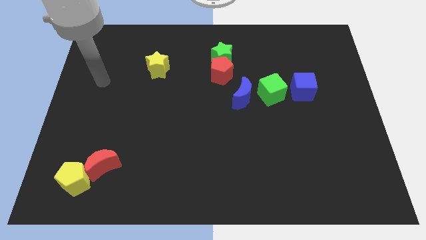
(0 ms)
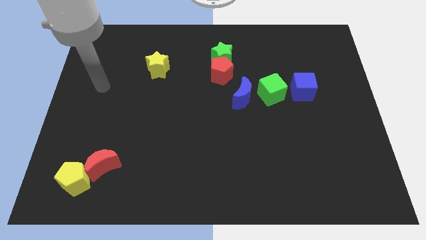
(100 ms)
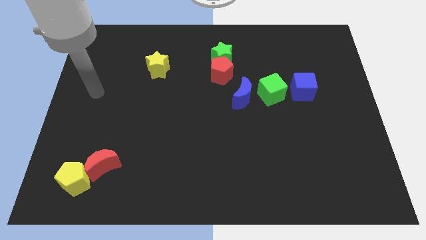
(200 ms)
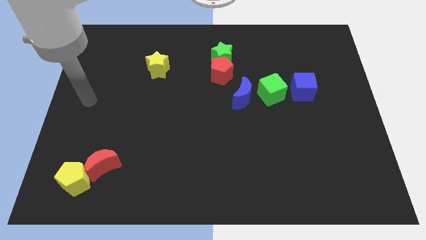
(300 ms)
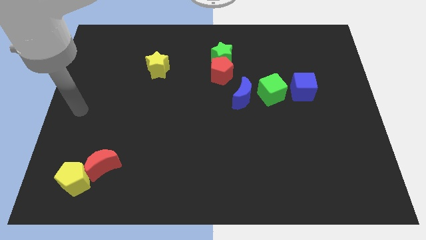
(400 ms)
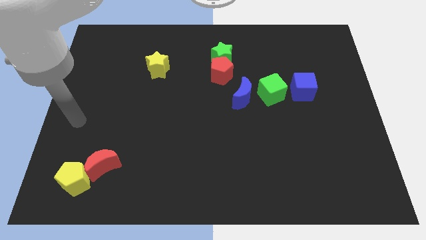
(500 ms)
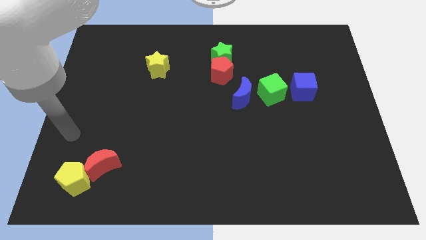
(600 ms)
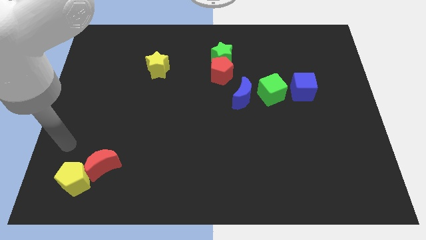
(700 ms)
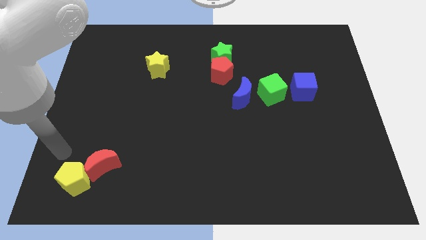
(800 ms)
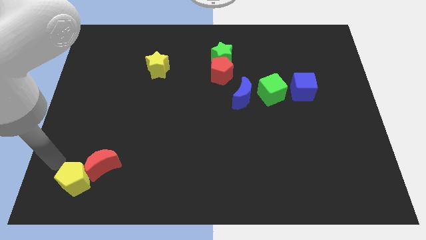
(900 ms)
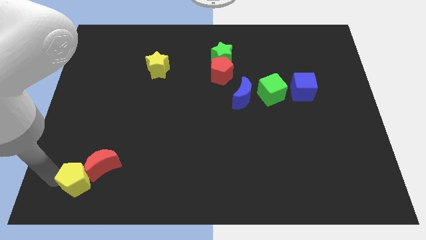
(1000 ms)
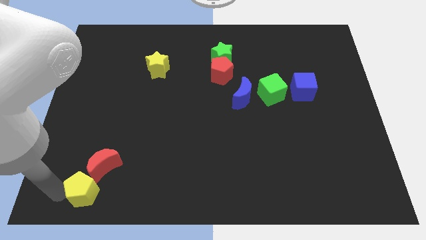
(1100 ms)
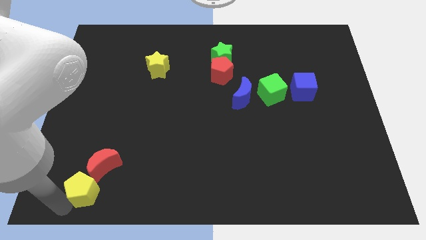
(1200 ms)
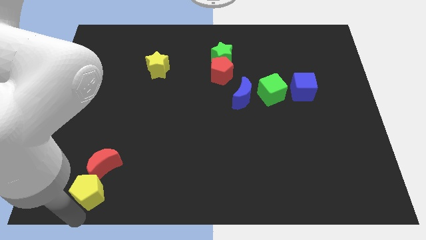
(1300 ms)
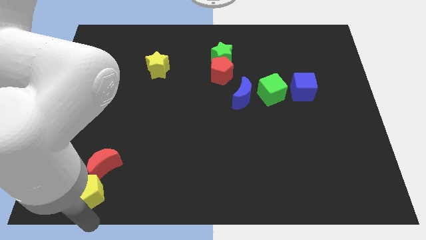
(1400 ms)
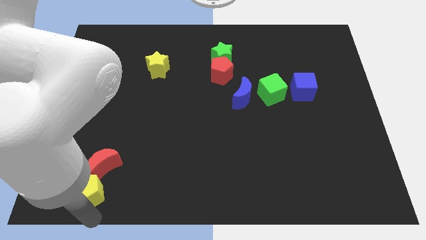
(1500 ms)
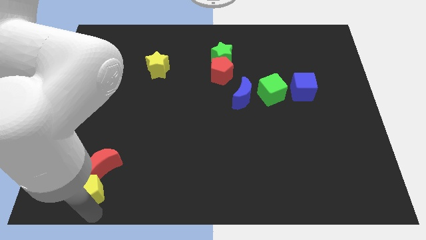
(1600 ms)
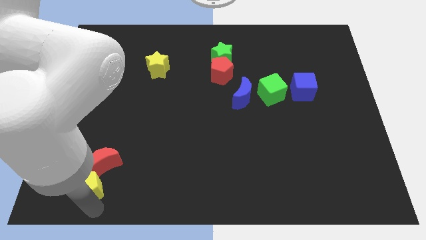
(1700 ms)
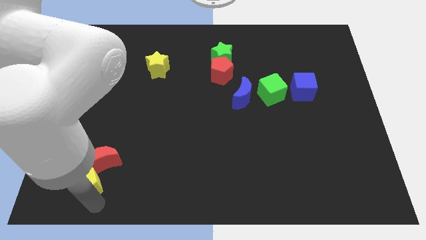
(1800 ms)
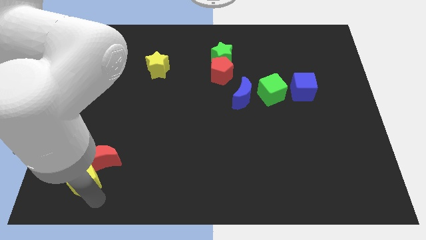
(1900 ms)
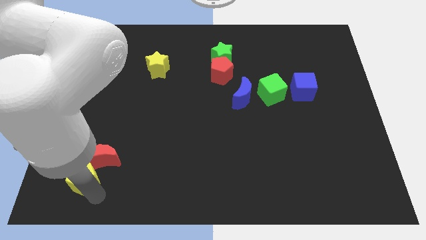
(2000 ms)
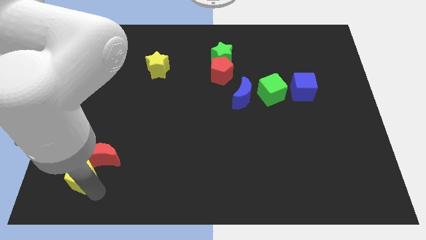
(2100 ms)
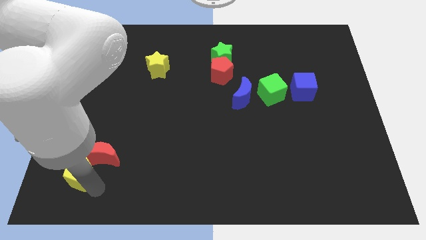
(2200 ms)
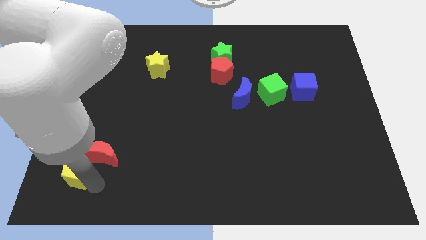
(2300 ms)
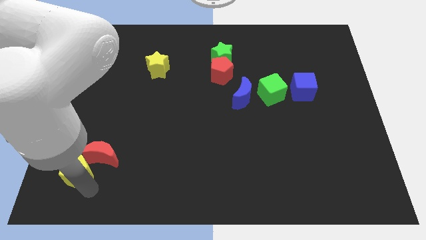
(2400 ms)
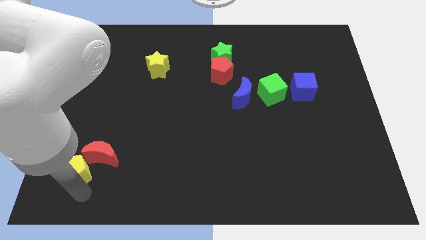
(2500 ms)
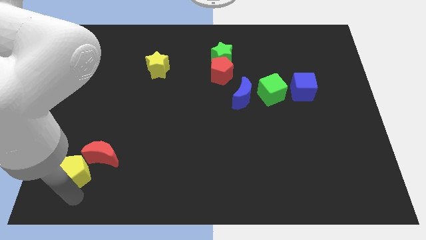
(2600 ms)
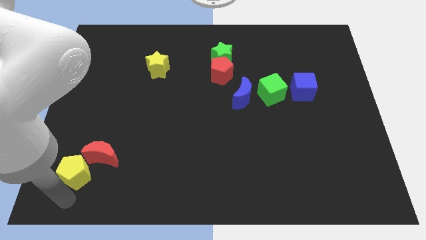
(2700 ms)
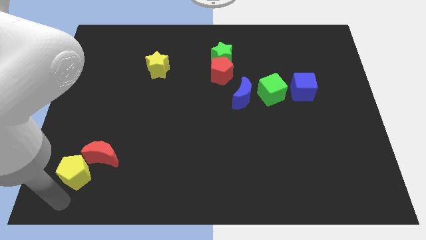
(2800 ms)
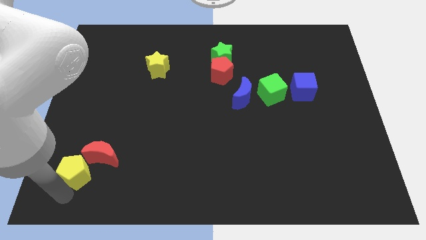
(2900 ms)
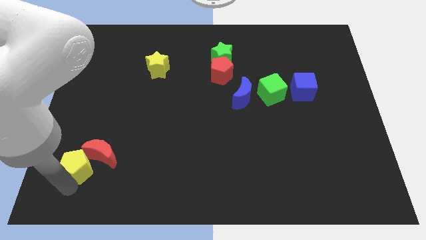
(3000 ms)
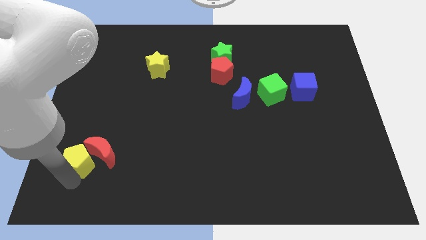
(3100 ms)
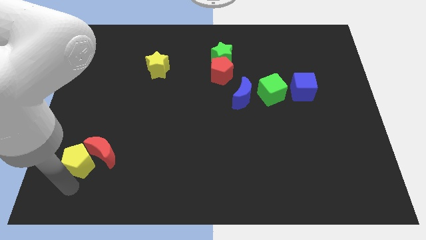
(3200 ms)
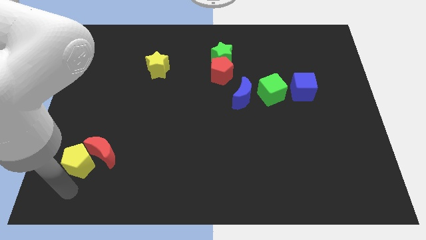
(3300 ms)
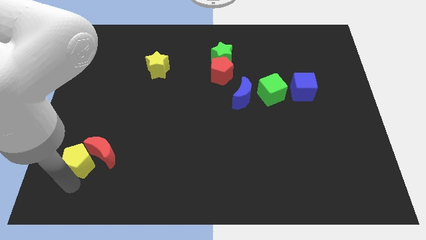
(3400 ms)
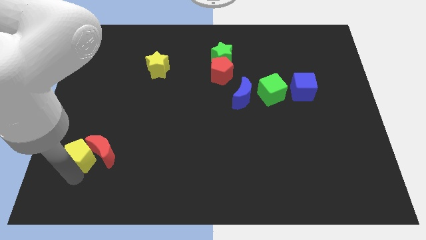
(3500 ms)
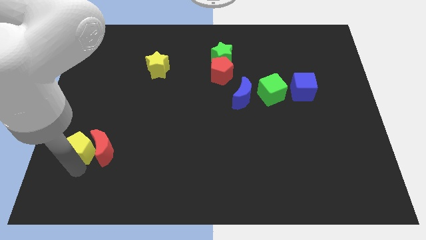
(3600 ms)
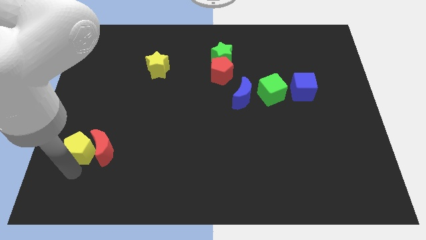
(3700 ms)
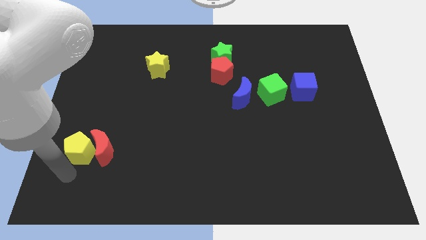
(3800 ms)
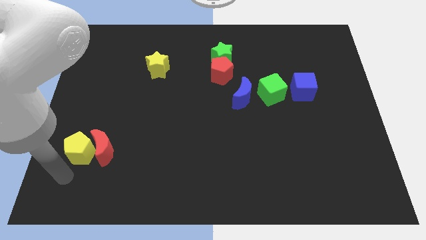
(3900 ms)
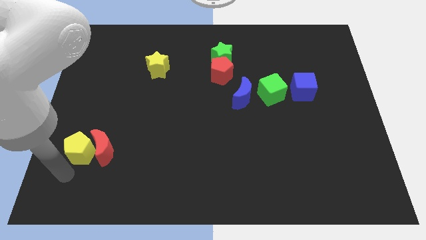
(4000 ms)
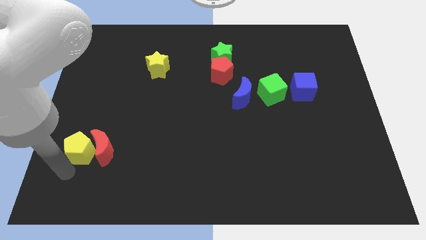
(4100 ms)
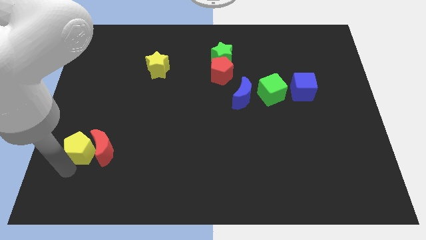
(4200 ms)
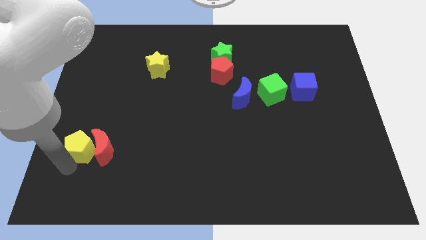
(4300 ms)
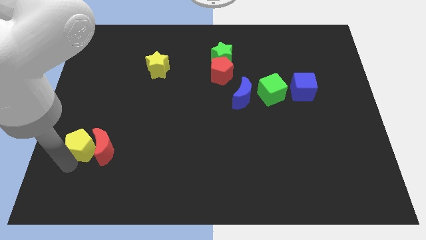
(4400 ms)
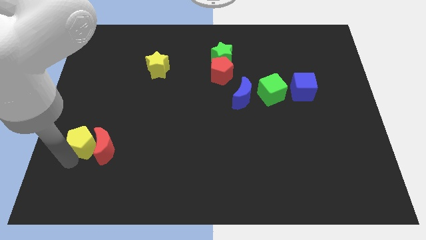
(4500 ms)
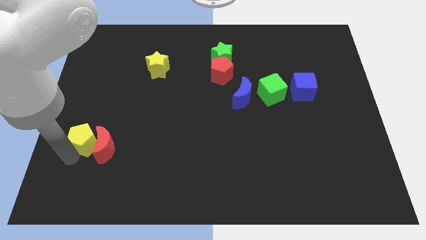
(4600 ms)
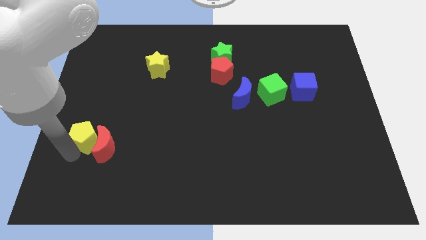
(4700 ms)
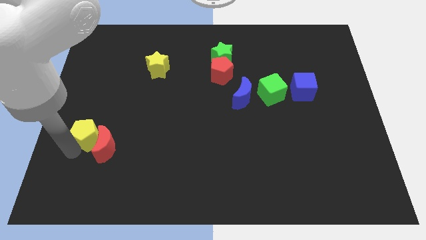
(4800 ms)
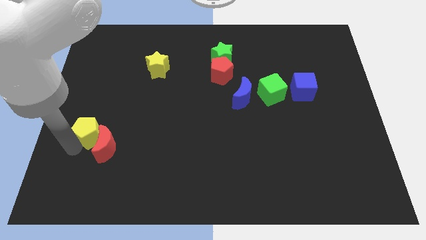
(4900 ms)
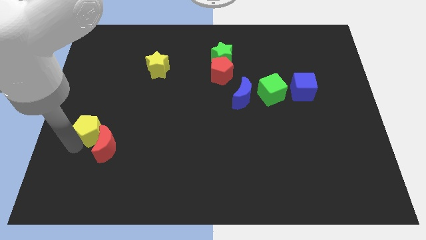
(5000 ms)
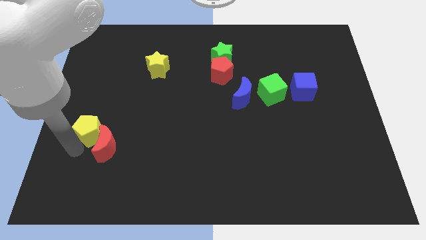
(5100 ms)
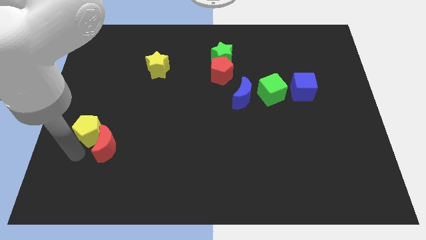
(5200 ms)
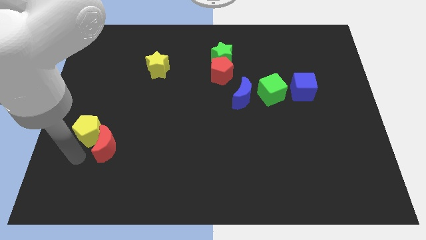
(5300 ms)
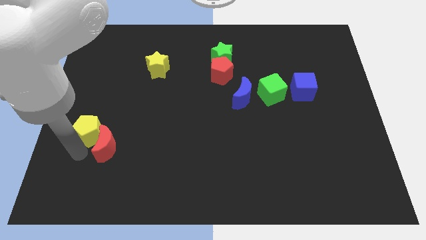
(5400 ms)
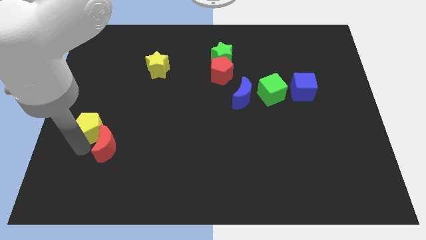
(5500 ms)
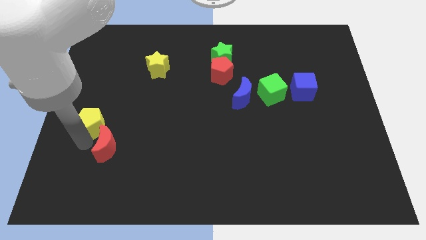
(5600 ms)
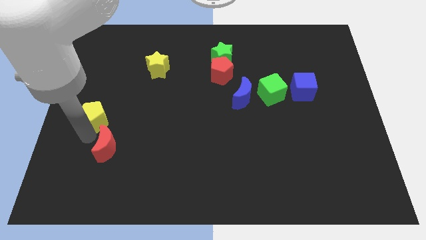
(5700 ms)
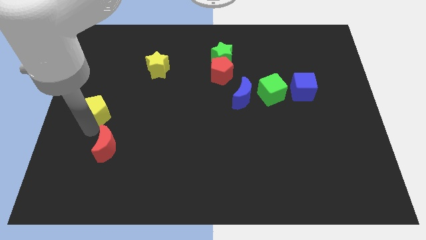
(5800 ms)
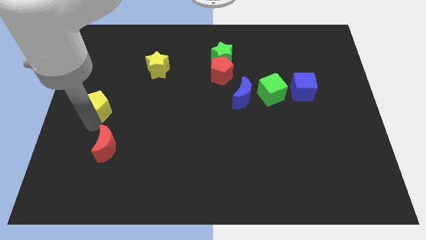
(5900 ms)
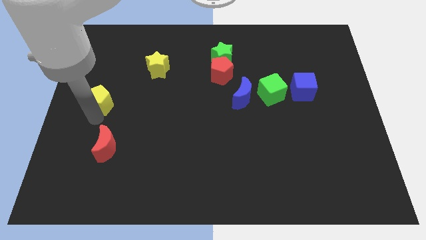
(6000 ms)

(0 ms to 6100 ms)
slide the yellow pentagon upwards

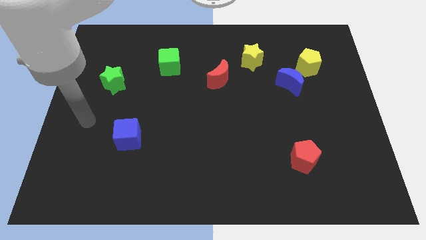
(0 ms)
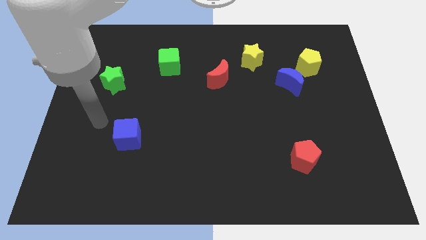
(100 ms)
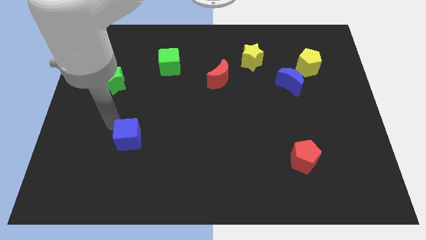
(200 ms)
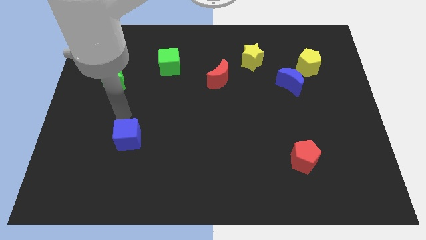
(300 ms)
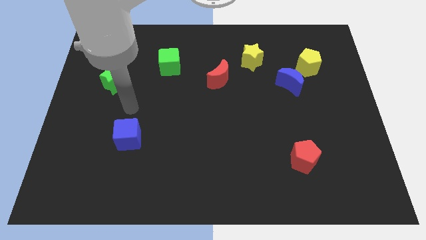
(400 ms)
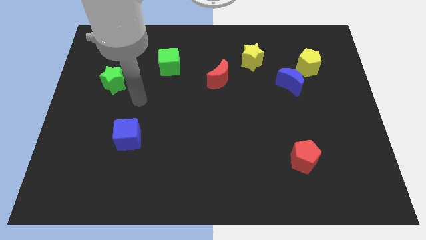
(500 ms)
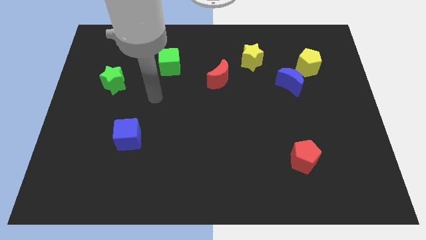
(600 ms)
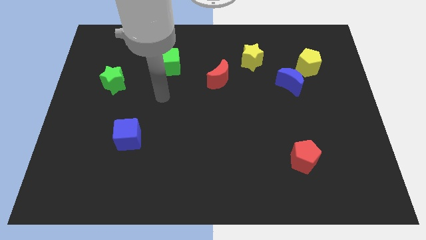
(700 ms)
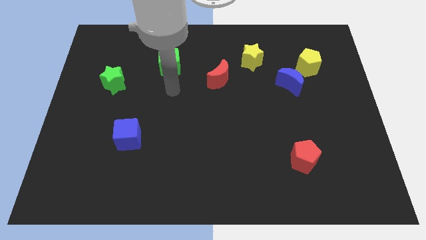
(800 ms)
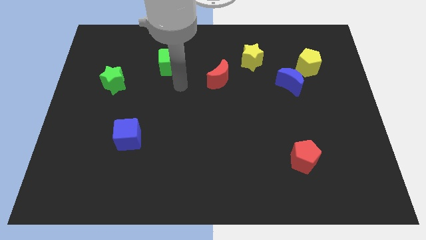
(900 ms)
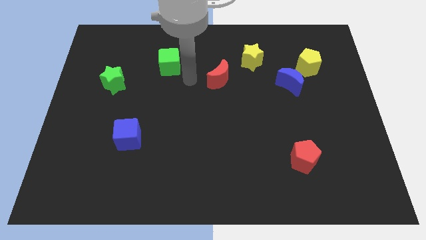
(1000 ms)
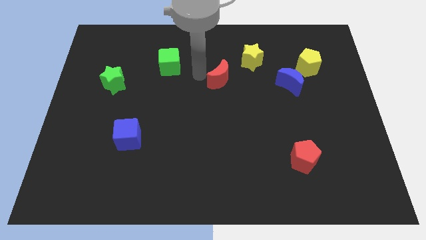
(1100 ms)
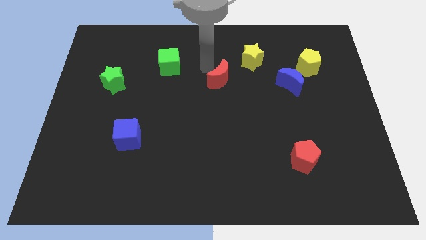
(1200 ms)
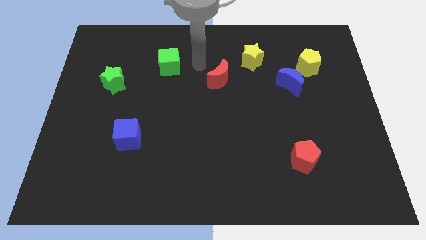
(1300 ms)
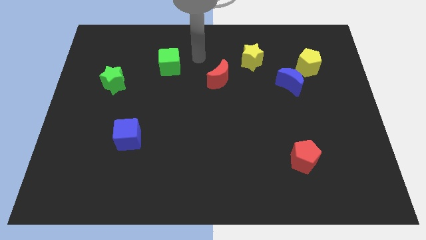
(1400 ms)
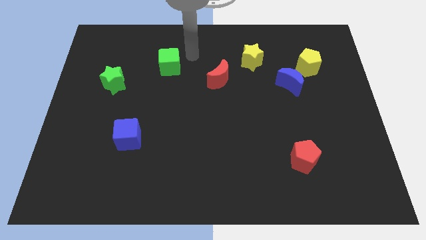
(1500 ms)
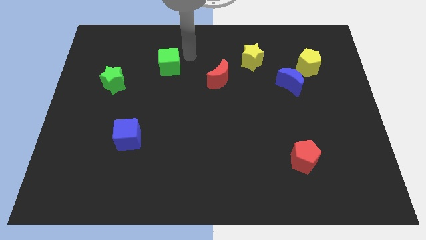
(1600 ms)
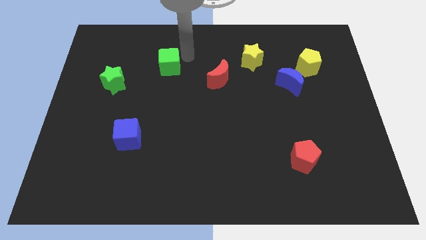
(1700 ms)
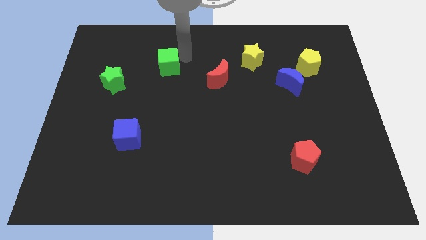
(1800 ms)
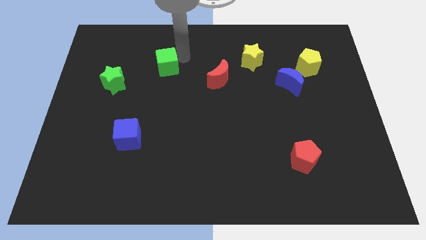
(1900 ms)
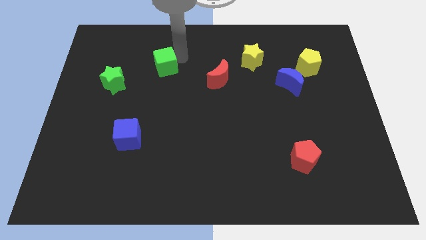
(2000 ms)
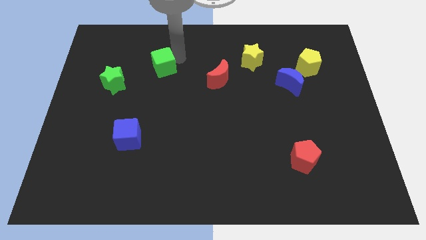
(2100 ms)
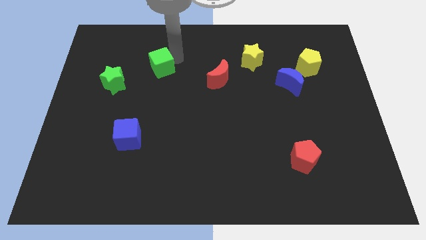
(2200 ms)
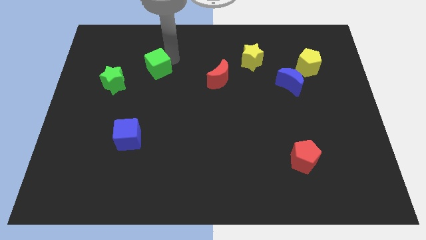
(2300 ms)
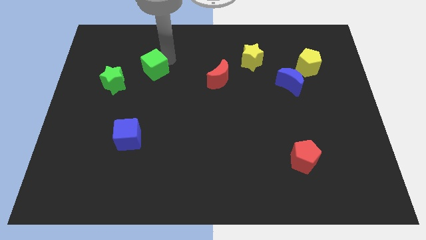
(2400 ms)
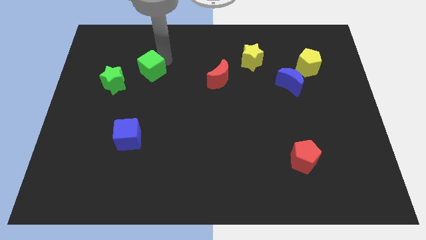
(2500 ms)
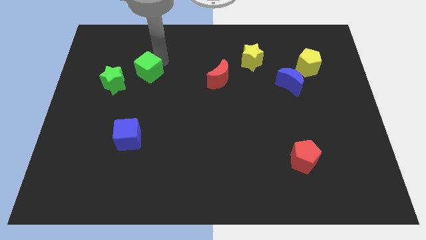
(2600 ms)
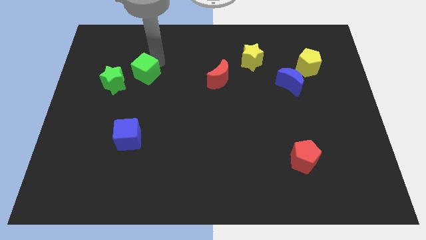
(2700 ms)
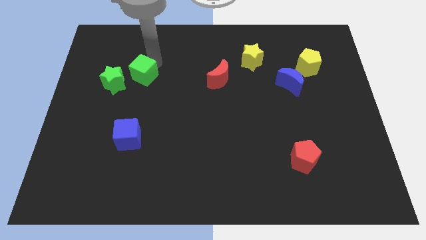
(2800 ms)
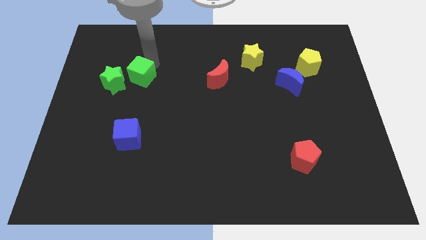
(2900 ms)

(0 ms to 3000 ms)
move the green cube a little bit downwards and left
